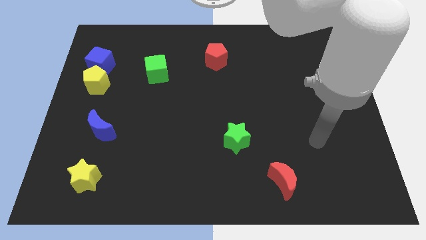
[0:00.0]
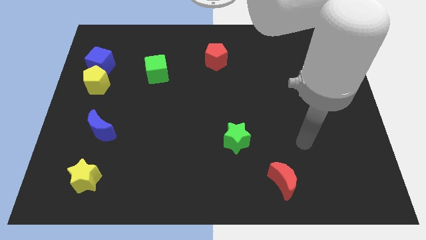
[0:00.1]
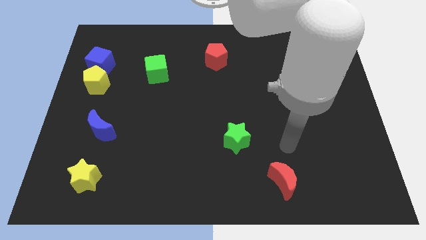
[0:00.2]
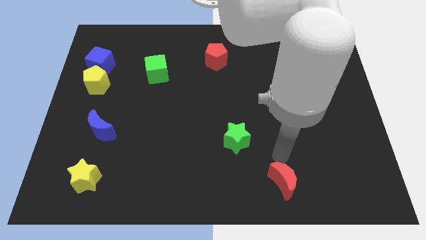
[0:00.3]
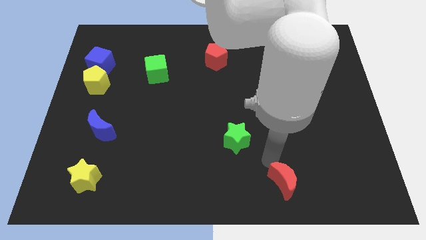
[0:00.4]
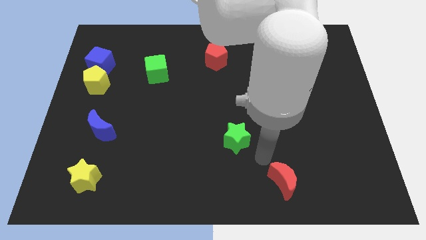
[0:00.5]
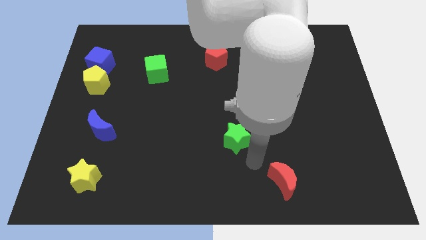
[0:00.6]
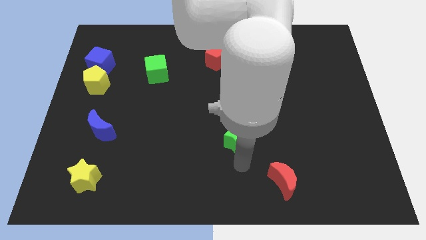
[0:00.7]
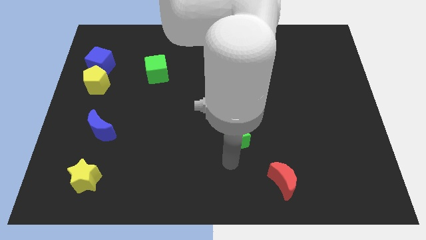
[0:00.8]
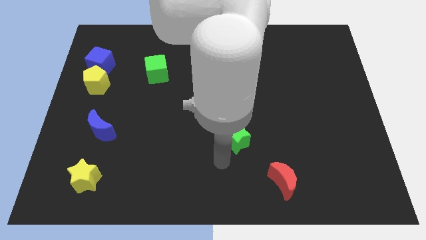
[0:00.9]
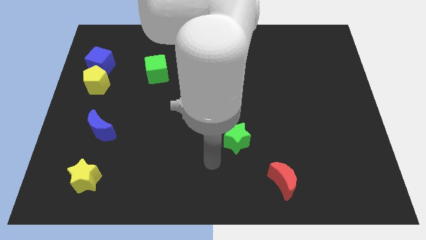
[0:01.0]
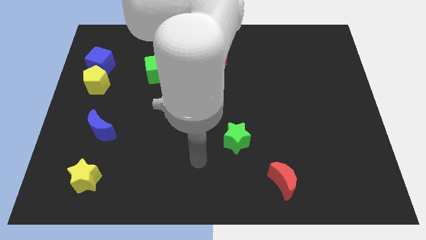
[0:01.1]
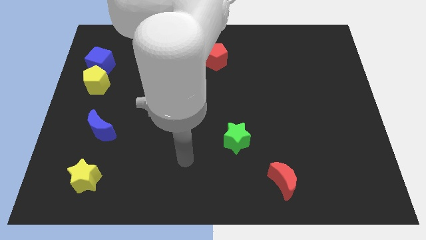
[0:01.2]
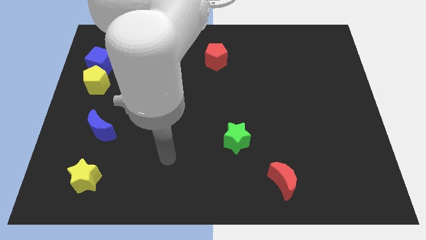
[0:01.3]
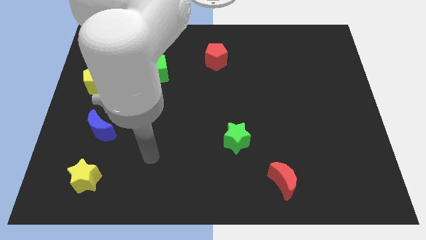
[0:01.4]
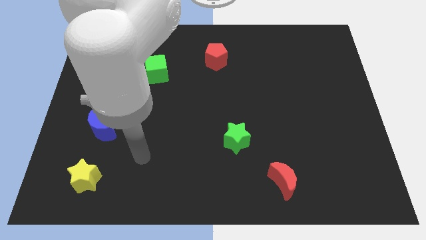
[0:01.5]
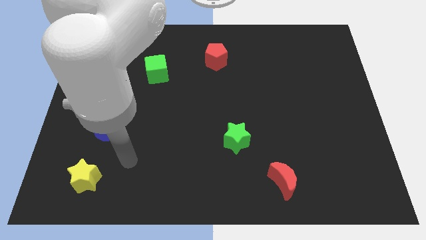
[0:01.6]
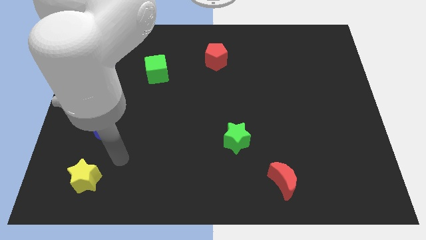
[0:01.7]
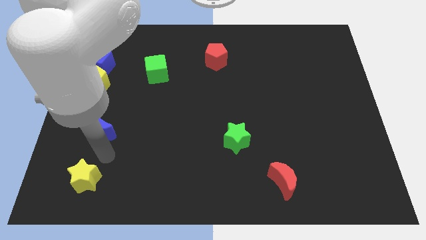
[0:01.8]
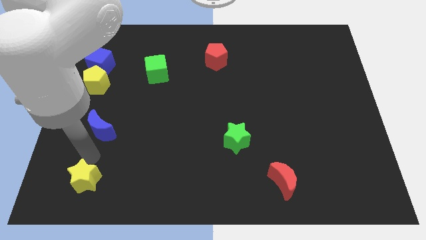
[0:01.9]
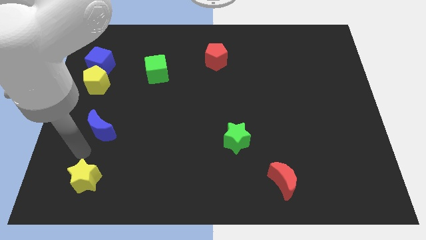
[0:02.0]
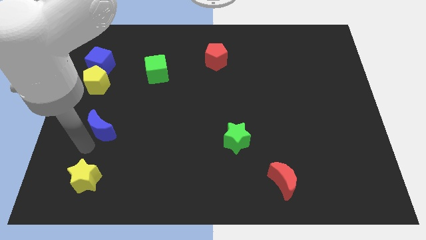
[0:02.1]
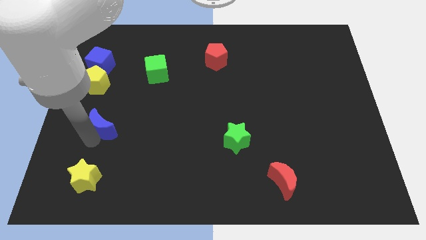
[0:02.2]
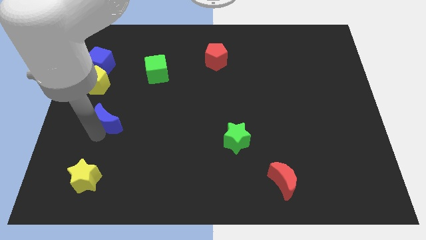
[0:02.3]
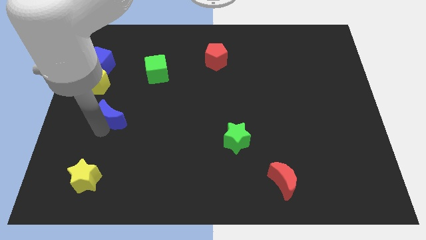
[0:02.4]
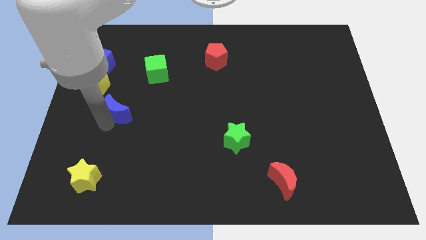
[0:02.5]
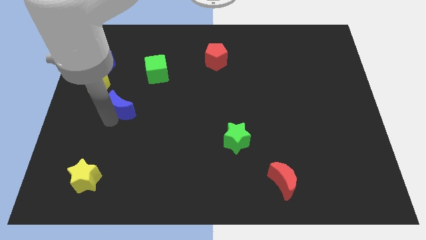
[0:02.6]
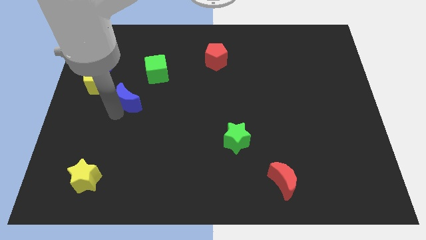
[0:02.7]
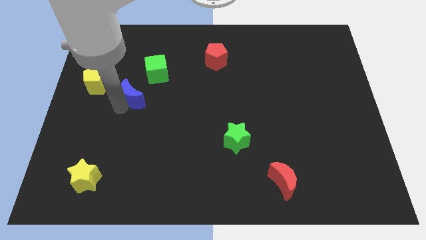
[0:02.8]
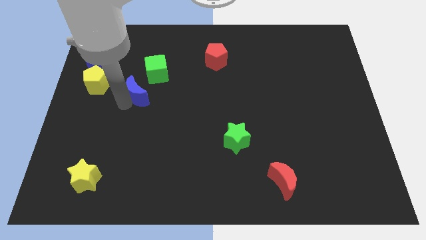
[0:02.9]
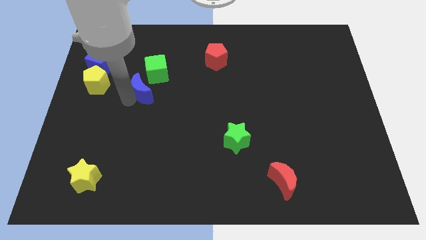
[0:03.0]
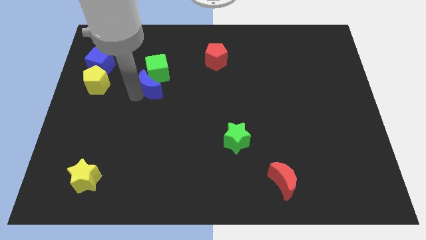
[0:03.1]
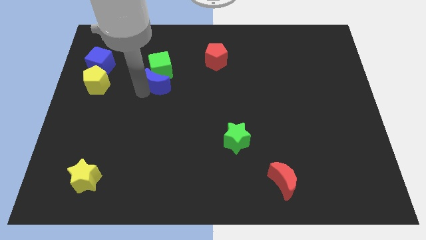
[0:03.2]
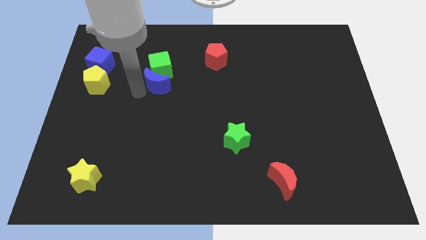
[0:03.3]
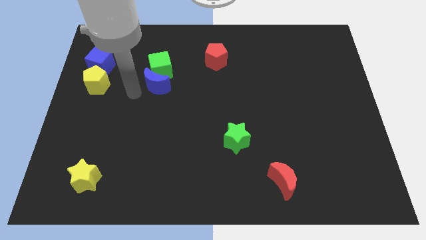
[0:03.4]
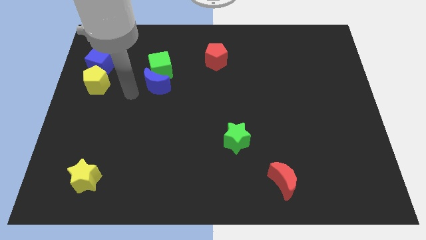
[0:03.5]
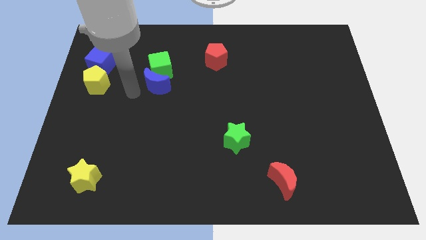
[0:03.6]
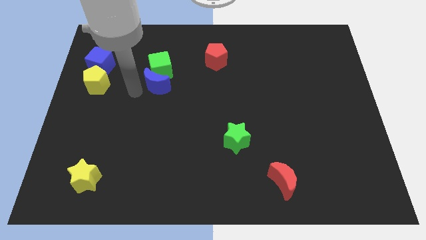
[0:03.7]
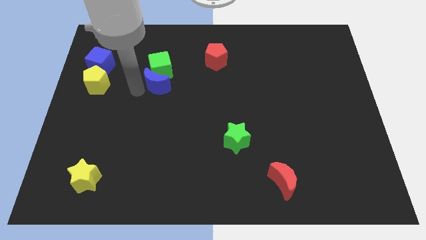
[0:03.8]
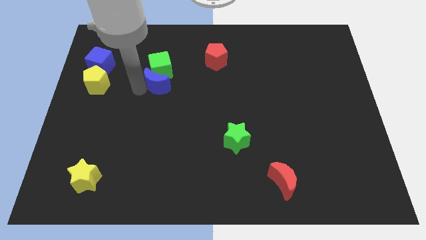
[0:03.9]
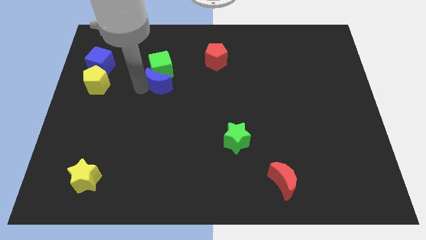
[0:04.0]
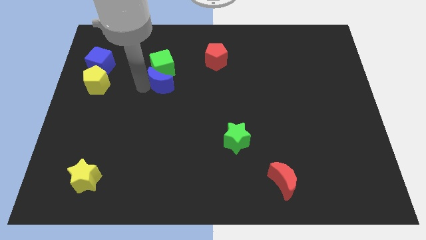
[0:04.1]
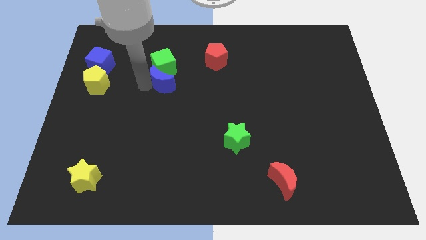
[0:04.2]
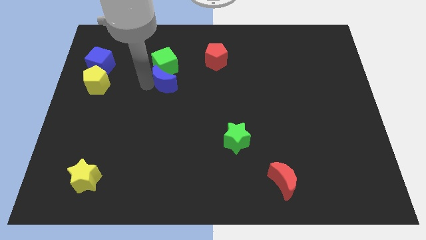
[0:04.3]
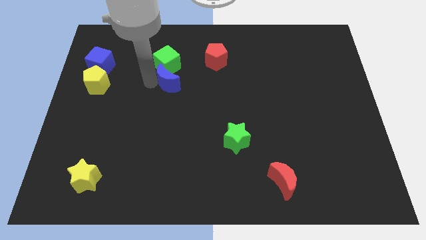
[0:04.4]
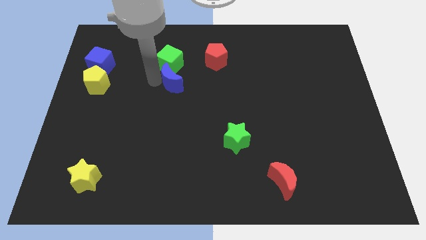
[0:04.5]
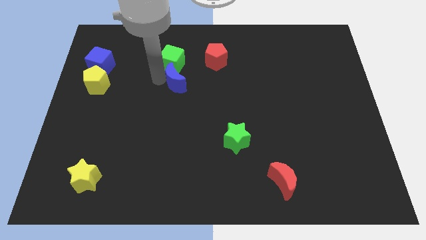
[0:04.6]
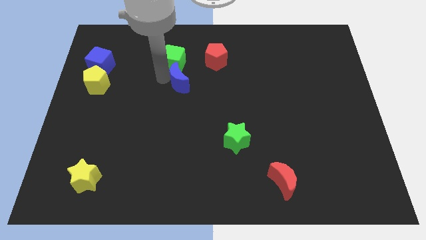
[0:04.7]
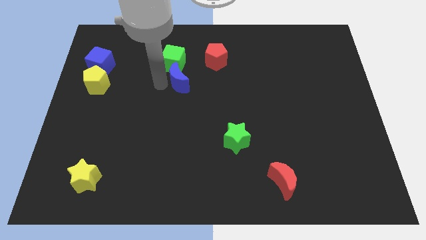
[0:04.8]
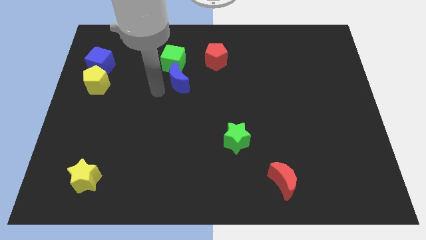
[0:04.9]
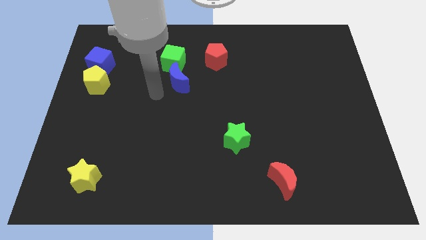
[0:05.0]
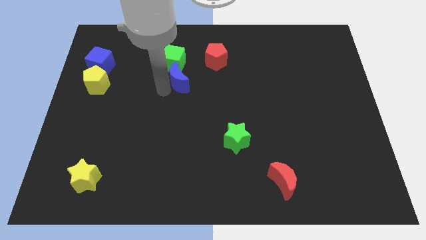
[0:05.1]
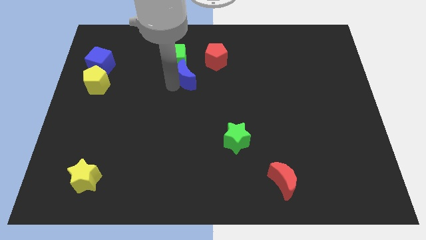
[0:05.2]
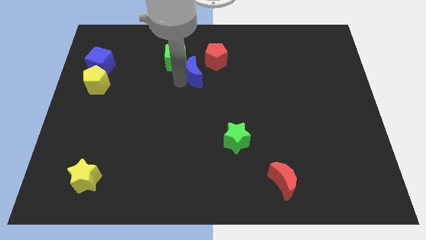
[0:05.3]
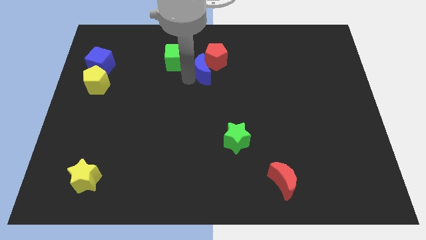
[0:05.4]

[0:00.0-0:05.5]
put the blue moon to the right side of the green cube

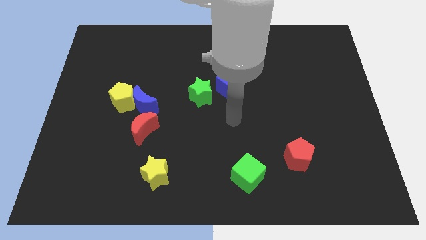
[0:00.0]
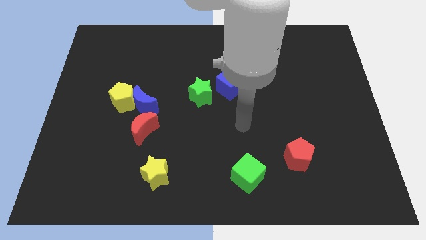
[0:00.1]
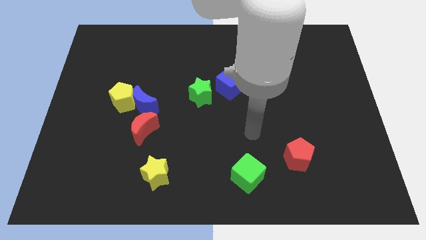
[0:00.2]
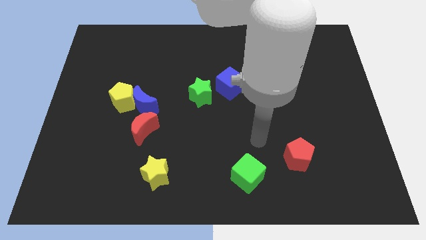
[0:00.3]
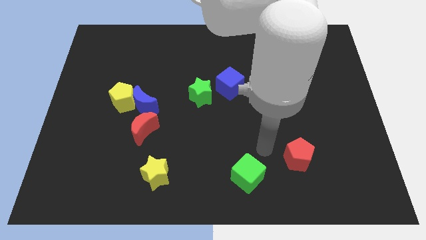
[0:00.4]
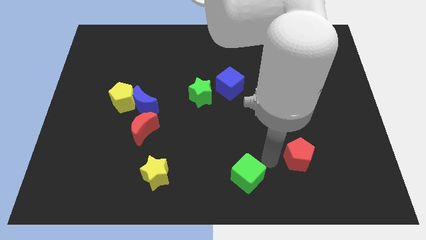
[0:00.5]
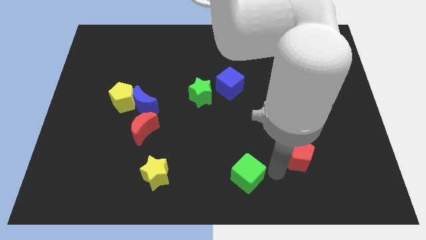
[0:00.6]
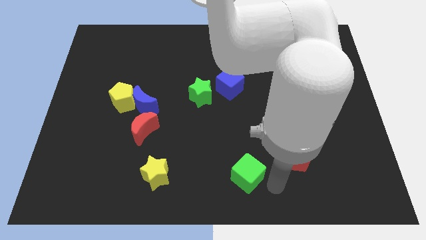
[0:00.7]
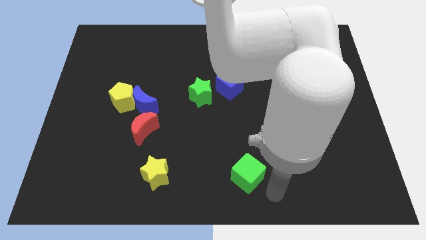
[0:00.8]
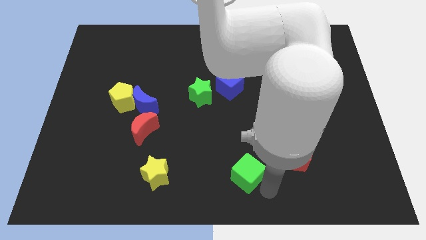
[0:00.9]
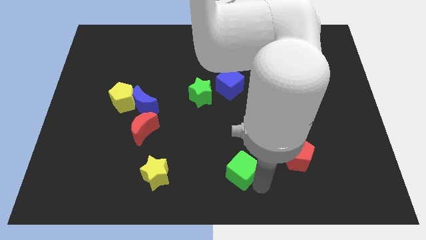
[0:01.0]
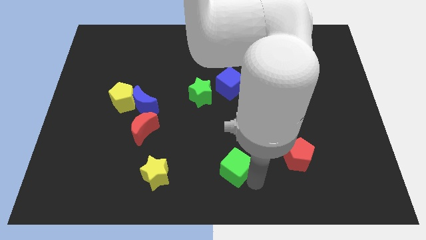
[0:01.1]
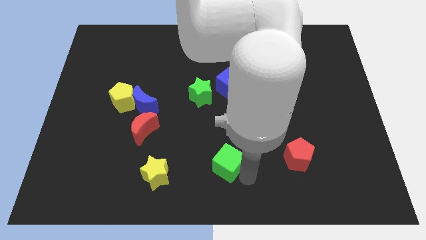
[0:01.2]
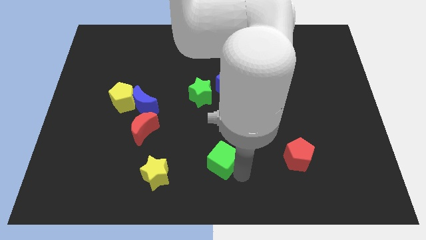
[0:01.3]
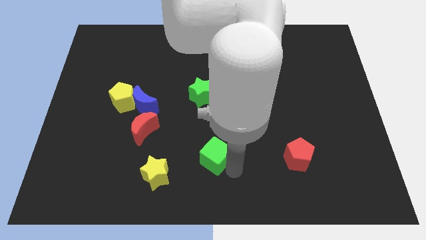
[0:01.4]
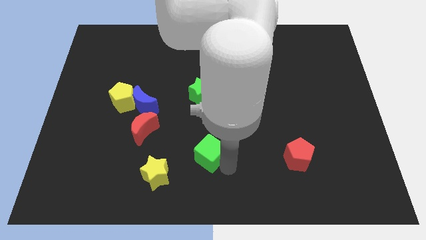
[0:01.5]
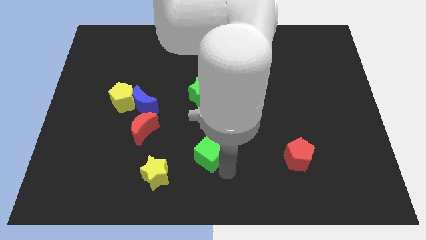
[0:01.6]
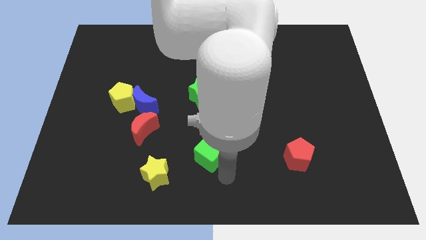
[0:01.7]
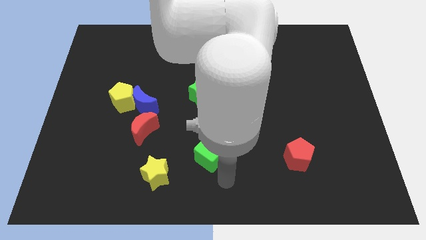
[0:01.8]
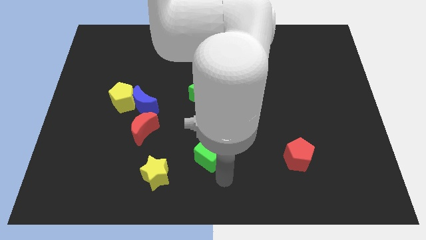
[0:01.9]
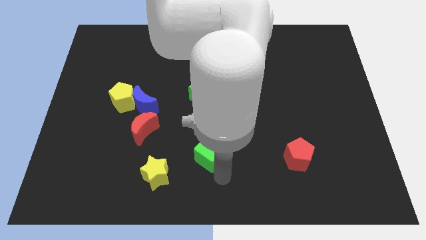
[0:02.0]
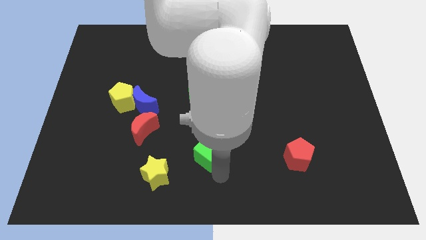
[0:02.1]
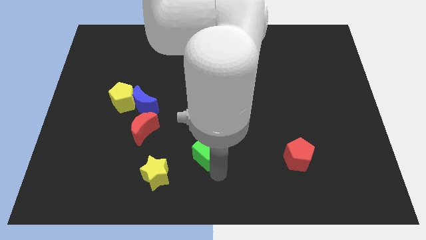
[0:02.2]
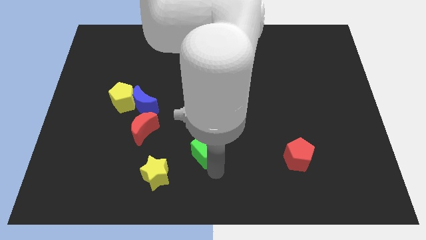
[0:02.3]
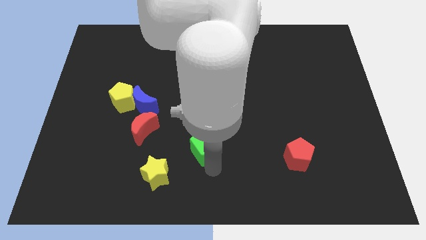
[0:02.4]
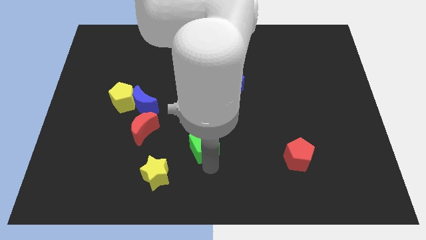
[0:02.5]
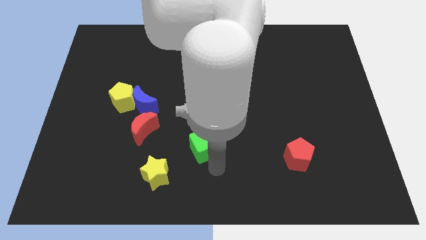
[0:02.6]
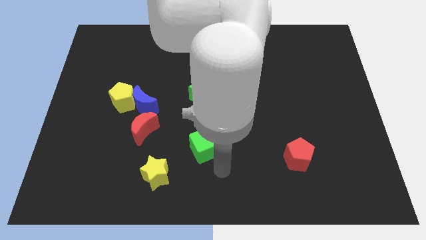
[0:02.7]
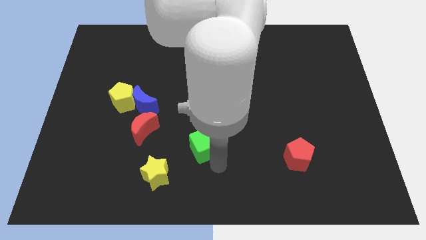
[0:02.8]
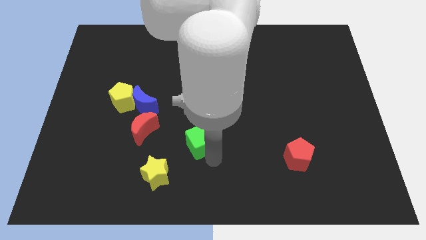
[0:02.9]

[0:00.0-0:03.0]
push the green cube just right of the red moon
